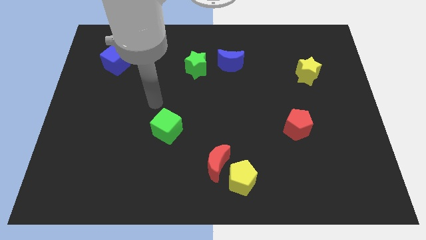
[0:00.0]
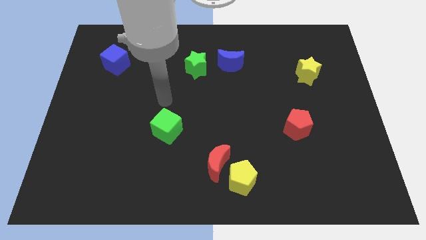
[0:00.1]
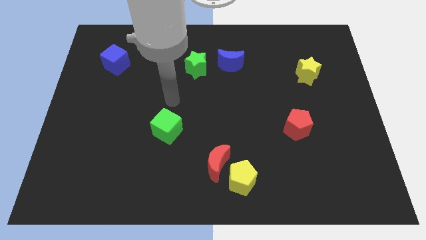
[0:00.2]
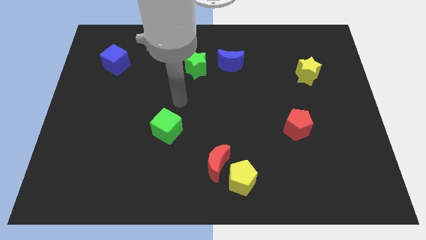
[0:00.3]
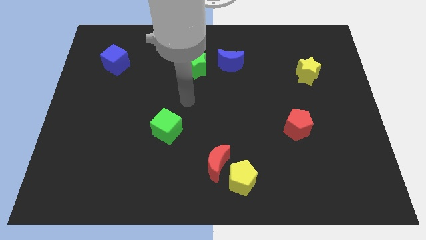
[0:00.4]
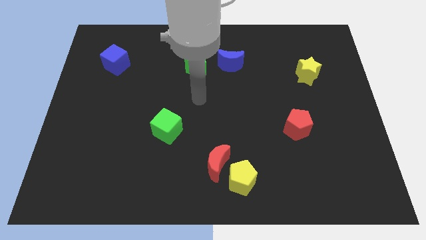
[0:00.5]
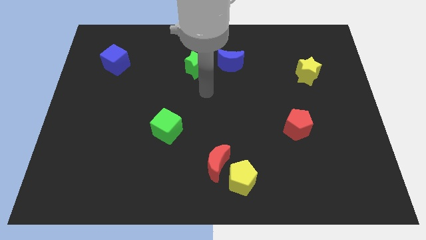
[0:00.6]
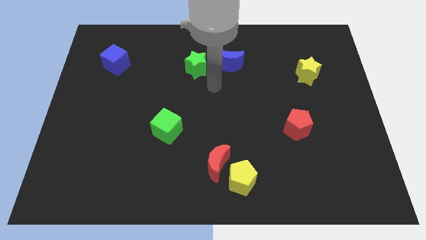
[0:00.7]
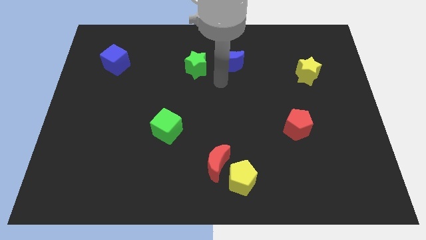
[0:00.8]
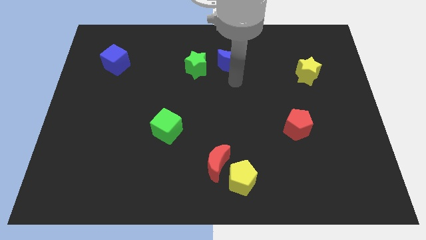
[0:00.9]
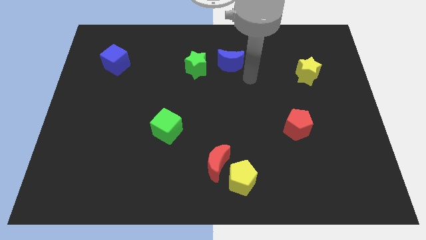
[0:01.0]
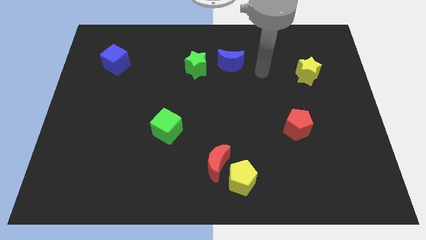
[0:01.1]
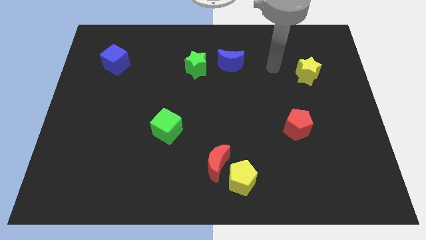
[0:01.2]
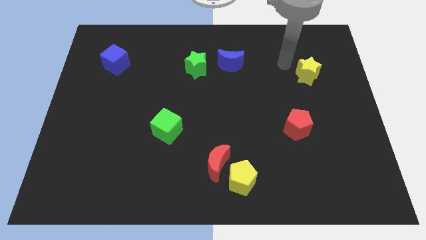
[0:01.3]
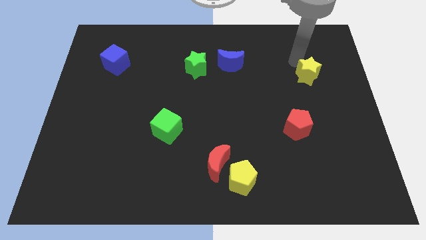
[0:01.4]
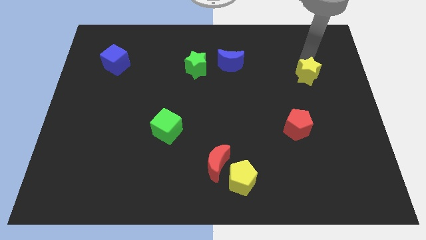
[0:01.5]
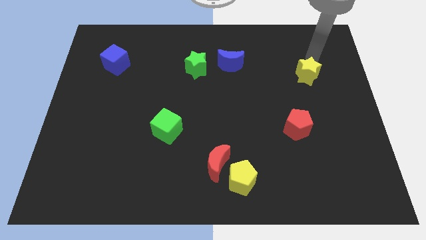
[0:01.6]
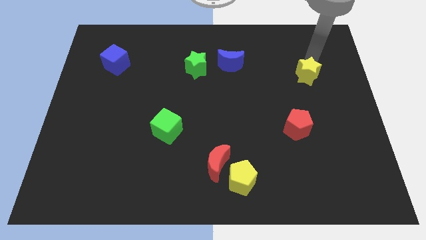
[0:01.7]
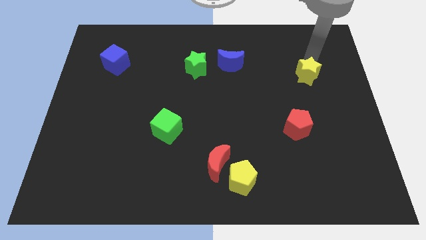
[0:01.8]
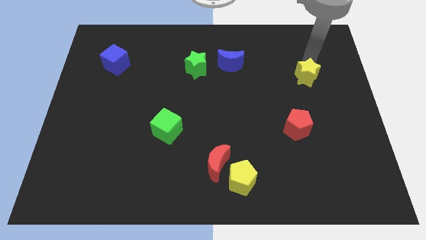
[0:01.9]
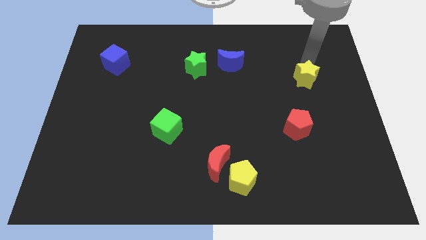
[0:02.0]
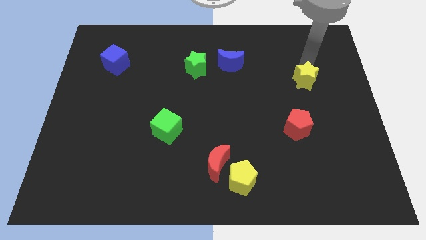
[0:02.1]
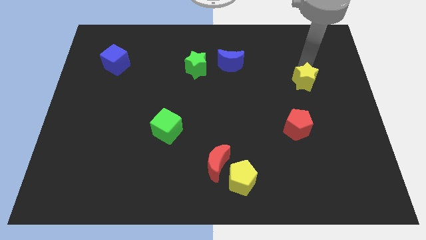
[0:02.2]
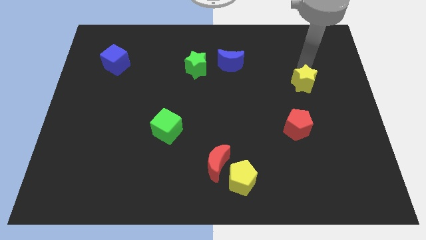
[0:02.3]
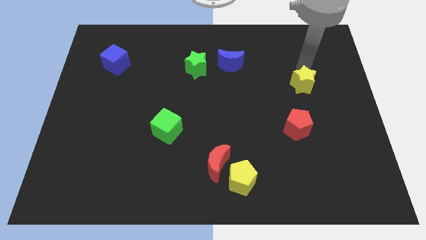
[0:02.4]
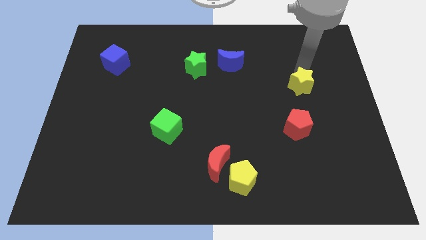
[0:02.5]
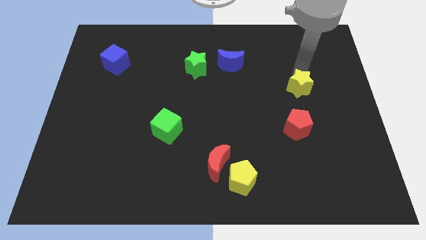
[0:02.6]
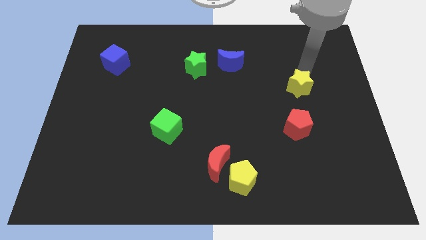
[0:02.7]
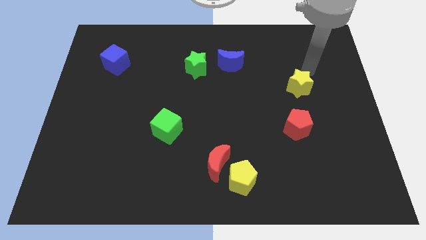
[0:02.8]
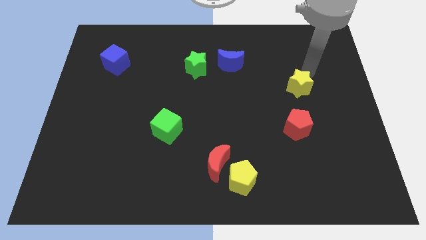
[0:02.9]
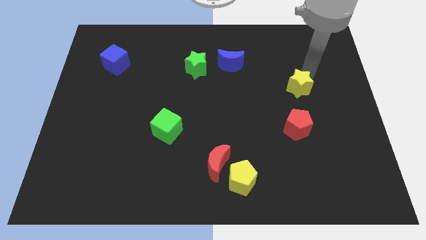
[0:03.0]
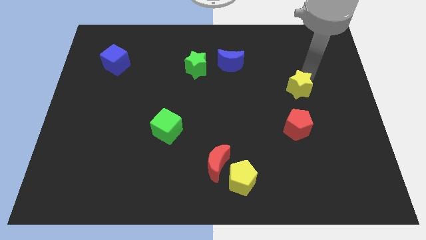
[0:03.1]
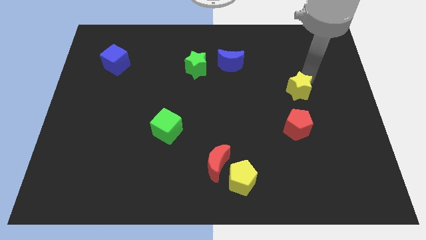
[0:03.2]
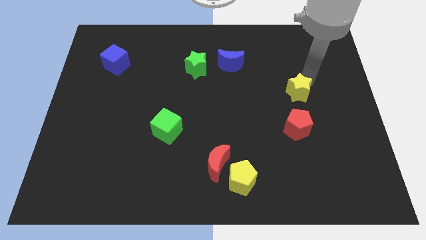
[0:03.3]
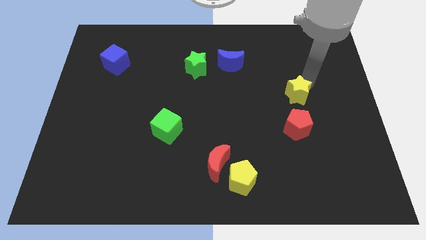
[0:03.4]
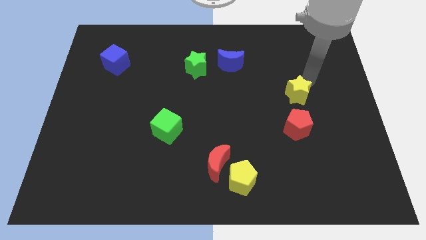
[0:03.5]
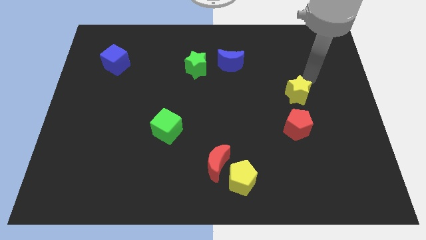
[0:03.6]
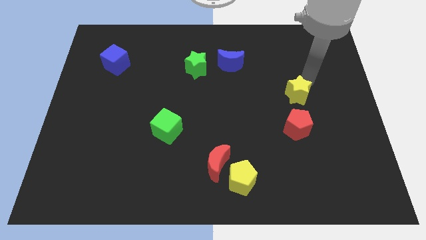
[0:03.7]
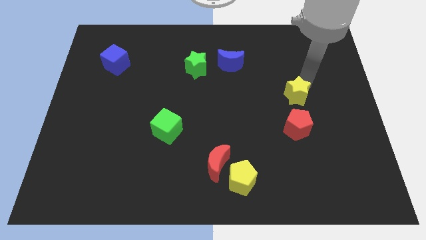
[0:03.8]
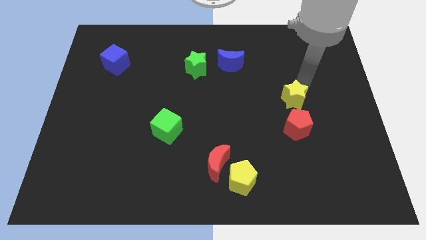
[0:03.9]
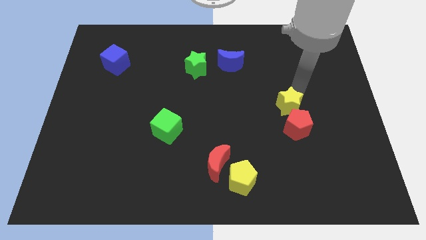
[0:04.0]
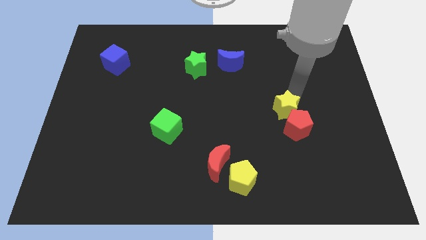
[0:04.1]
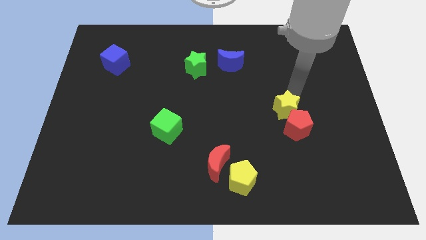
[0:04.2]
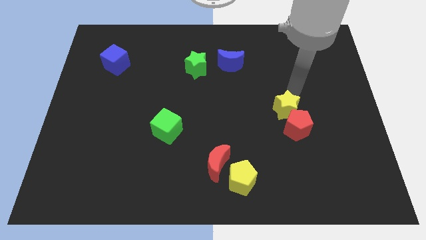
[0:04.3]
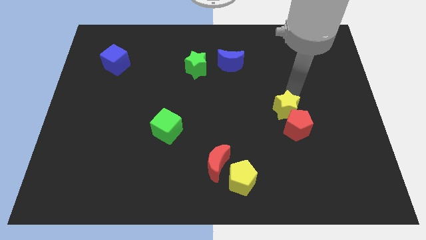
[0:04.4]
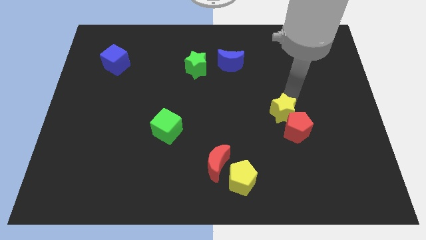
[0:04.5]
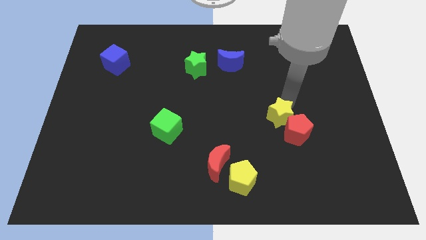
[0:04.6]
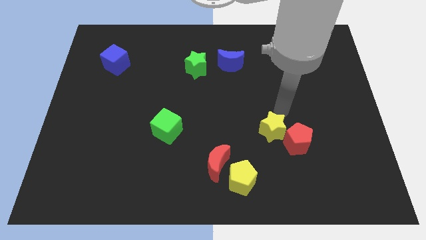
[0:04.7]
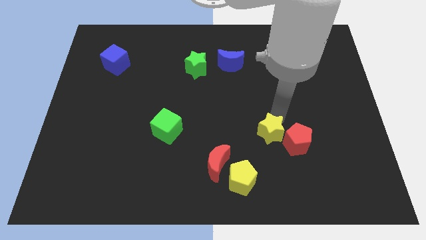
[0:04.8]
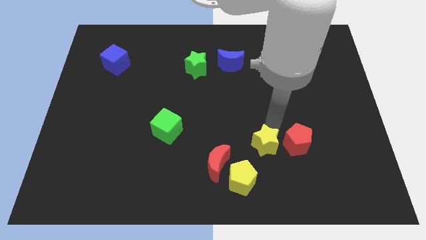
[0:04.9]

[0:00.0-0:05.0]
push the yellow star to the right of the red moon

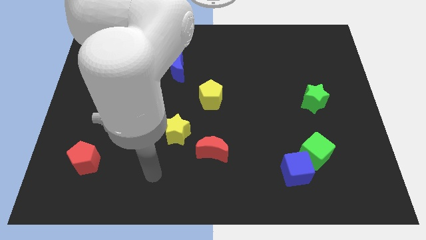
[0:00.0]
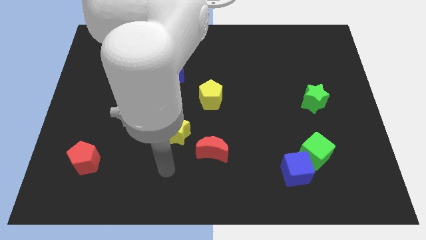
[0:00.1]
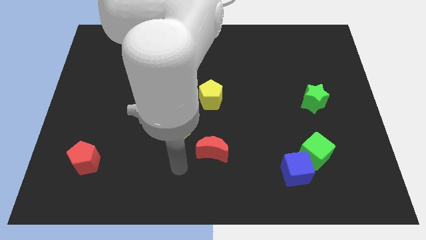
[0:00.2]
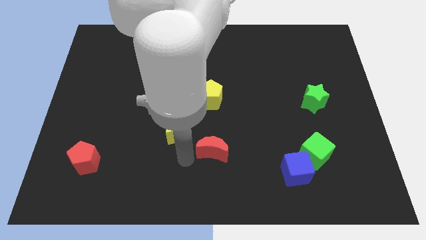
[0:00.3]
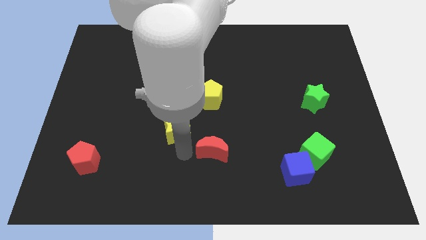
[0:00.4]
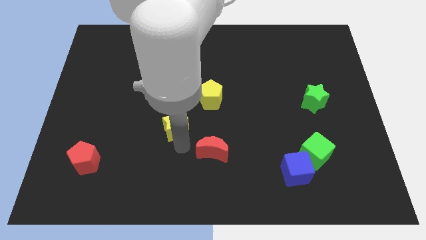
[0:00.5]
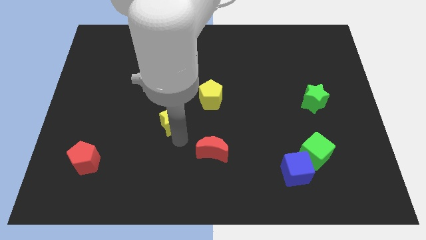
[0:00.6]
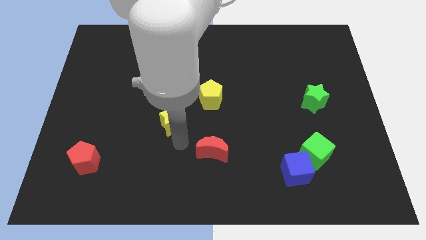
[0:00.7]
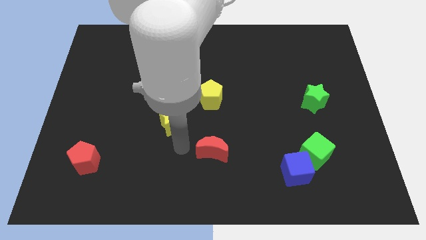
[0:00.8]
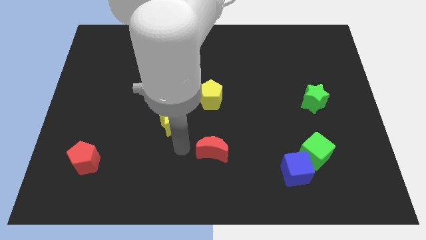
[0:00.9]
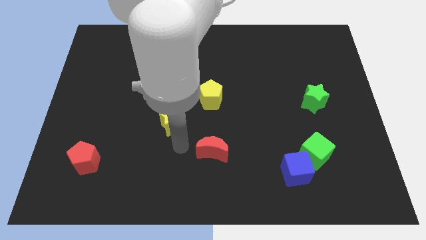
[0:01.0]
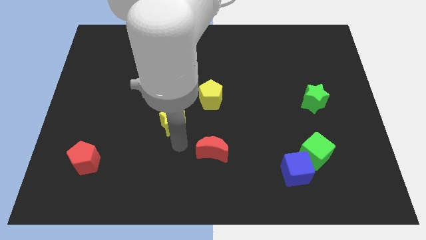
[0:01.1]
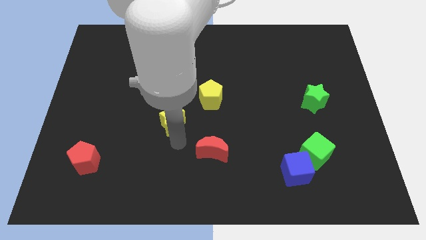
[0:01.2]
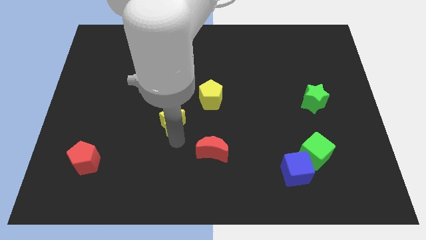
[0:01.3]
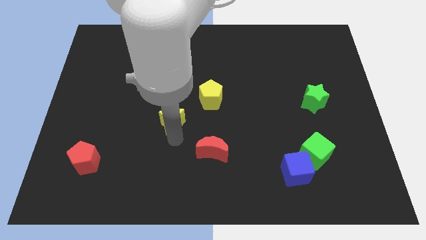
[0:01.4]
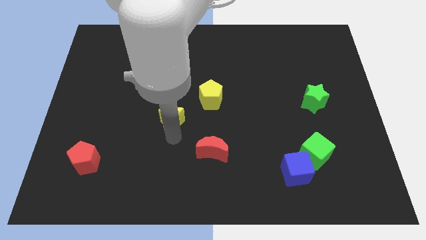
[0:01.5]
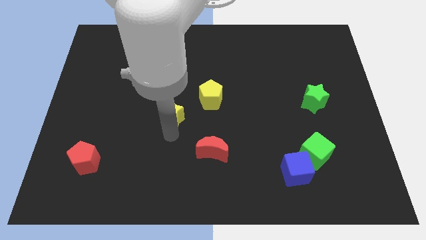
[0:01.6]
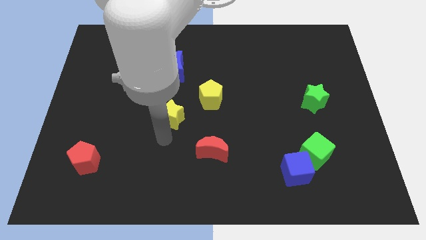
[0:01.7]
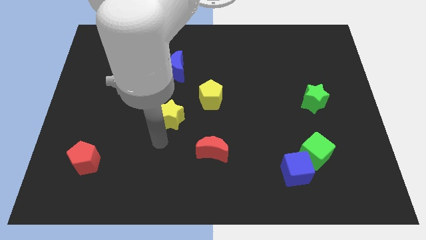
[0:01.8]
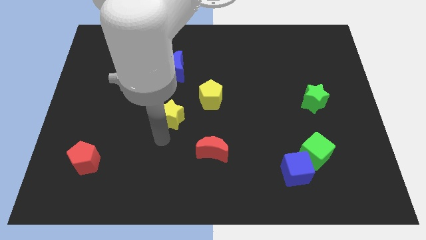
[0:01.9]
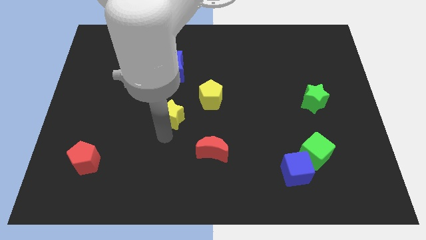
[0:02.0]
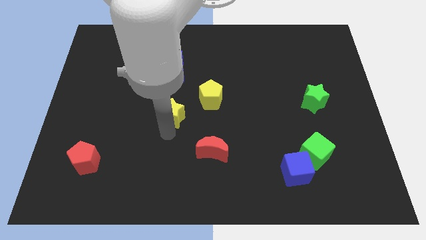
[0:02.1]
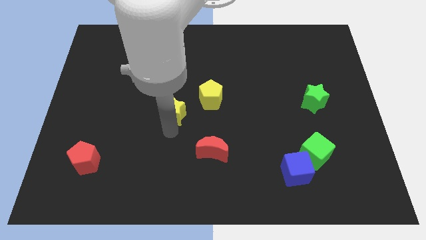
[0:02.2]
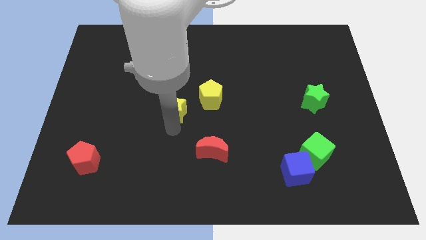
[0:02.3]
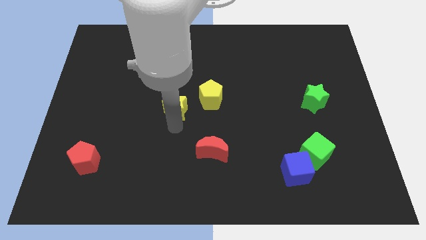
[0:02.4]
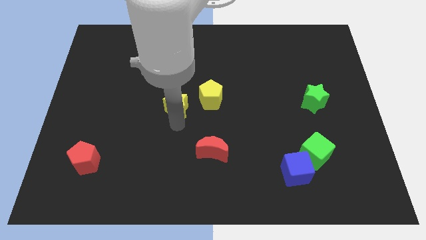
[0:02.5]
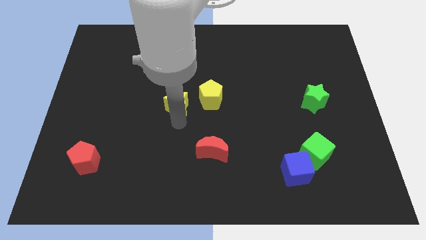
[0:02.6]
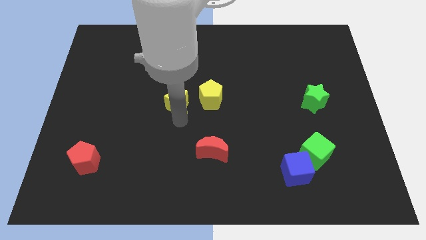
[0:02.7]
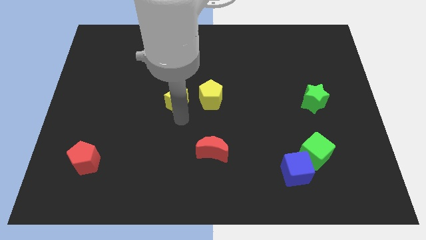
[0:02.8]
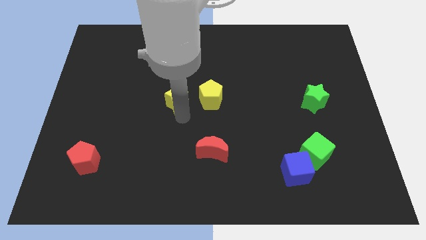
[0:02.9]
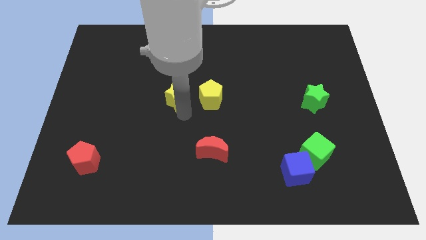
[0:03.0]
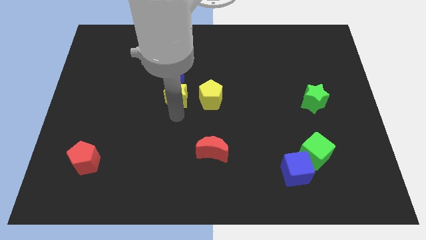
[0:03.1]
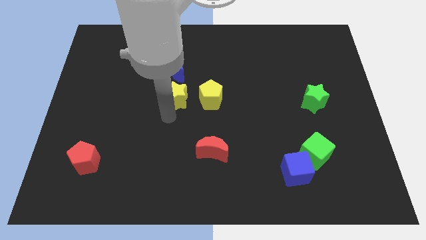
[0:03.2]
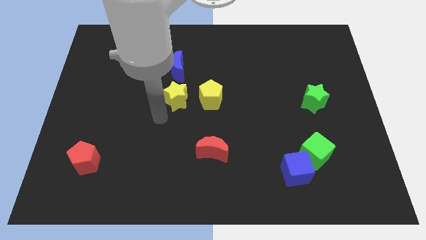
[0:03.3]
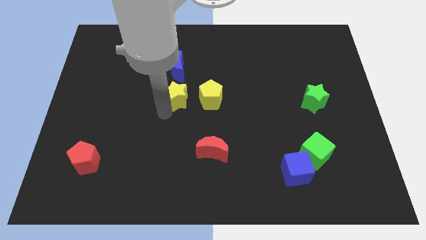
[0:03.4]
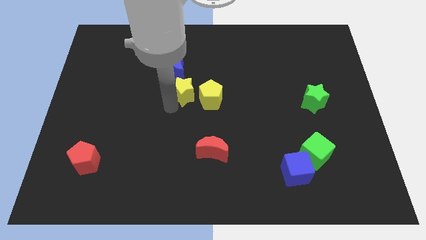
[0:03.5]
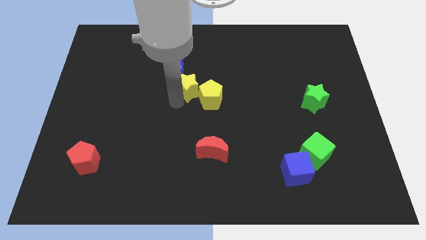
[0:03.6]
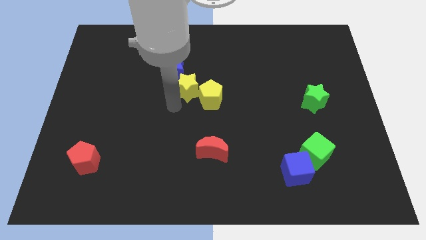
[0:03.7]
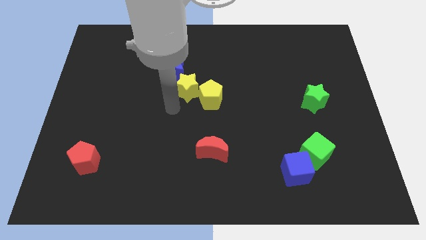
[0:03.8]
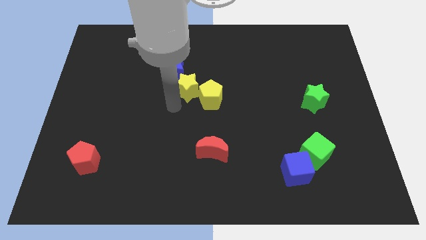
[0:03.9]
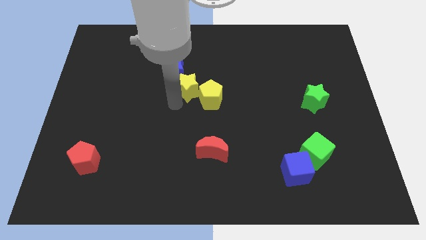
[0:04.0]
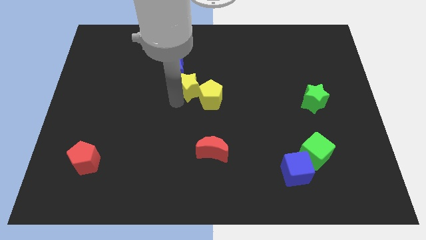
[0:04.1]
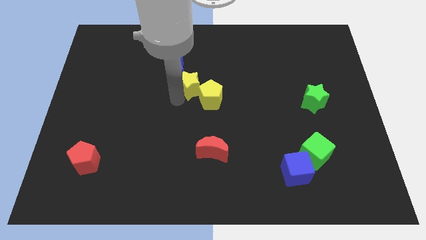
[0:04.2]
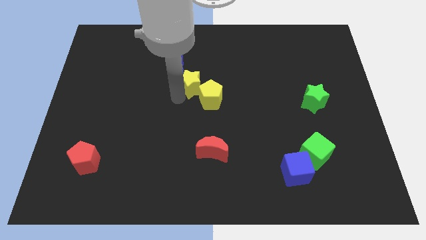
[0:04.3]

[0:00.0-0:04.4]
slide the yellow star above the yellow pentagon
